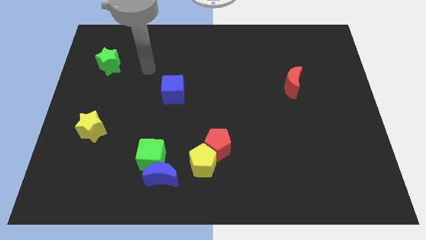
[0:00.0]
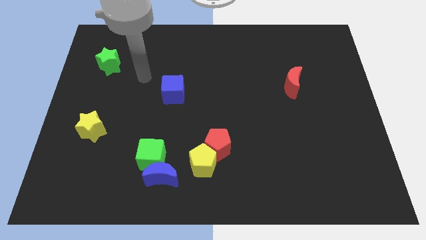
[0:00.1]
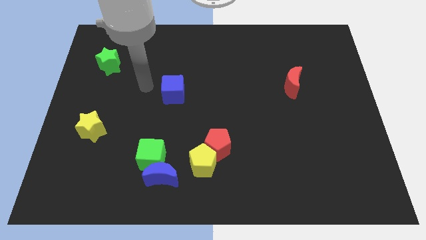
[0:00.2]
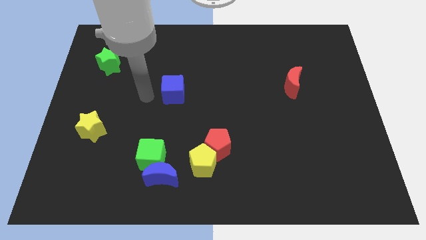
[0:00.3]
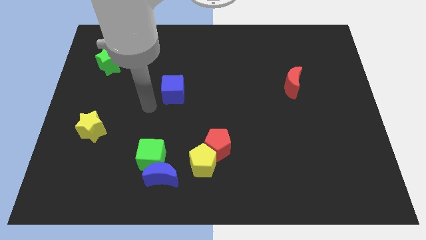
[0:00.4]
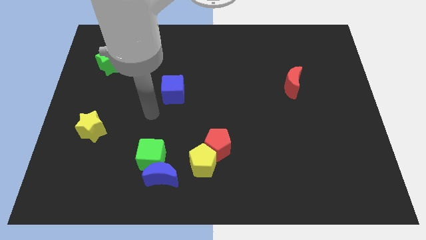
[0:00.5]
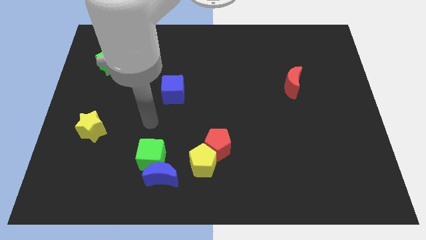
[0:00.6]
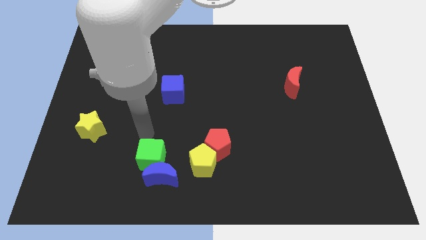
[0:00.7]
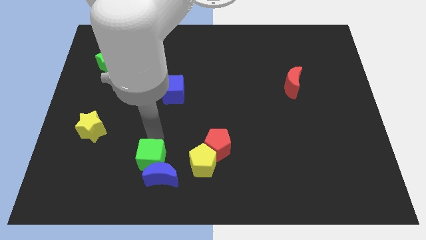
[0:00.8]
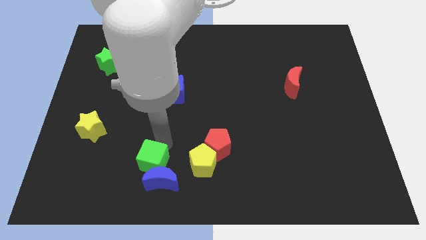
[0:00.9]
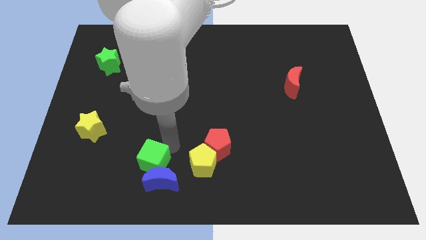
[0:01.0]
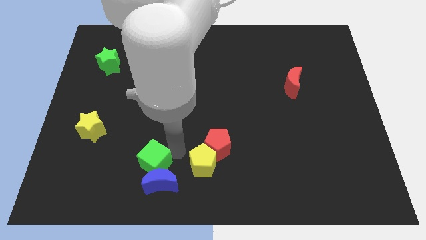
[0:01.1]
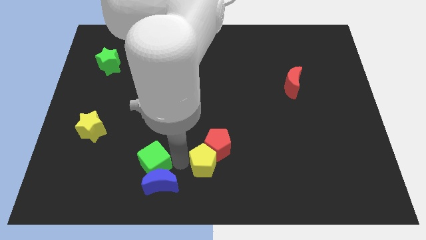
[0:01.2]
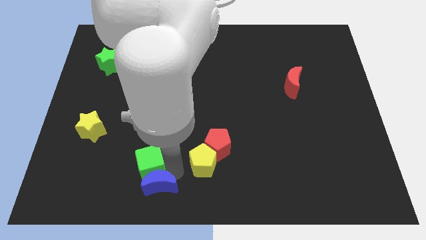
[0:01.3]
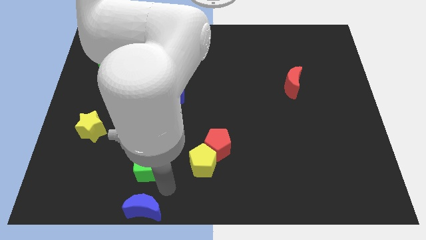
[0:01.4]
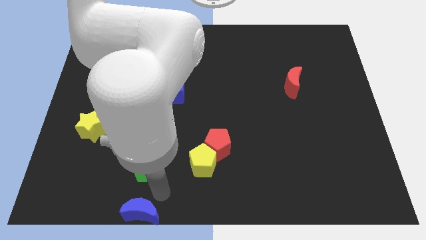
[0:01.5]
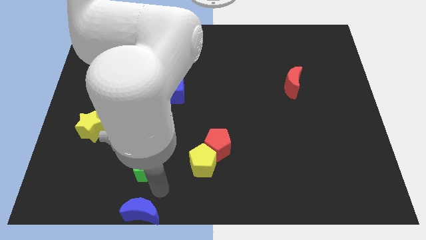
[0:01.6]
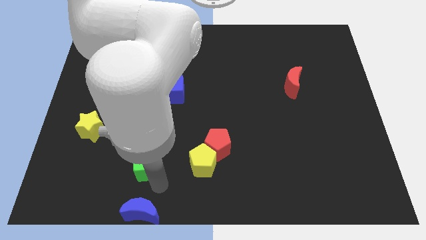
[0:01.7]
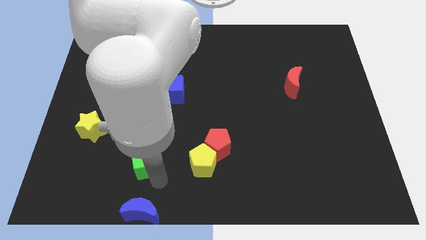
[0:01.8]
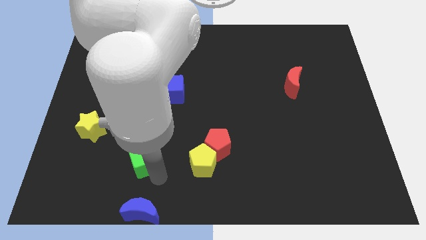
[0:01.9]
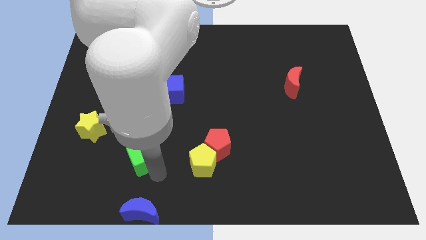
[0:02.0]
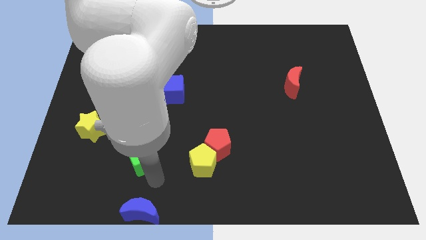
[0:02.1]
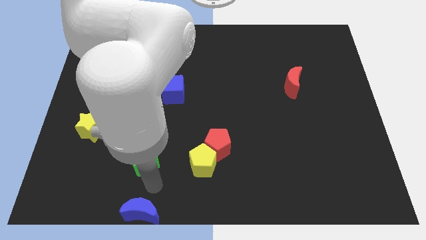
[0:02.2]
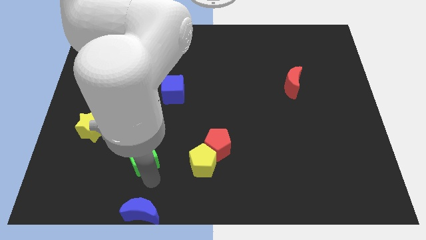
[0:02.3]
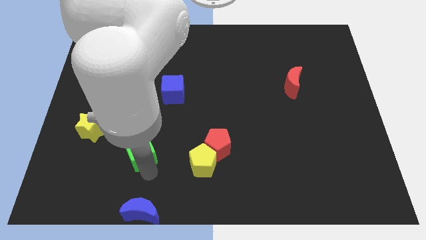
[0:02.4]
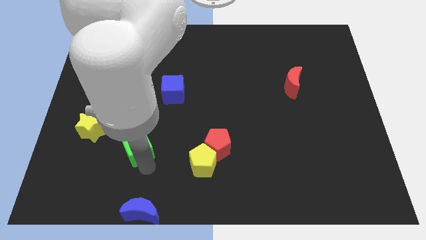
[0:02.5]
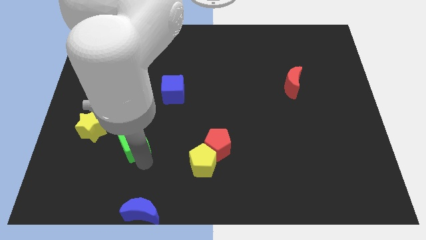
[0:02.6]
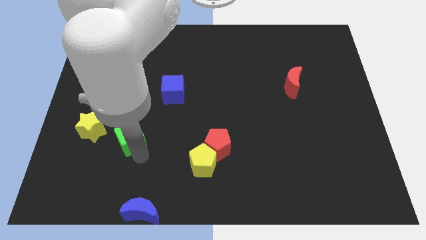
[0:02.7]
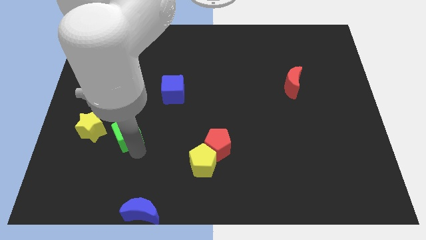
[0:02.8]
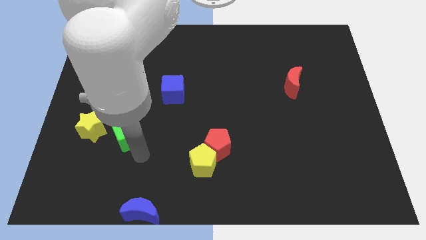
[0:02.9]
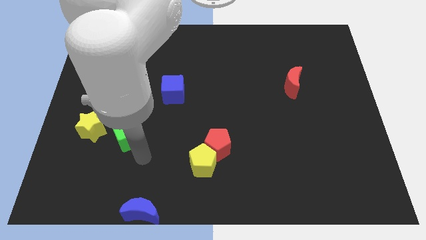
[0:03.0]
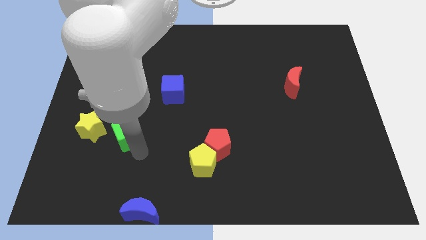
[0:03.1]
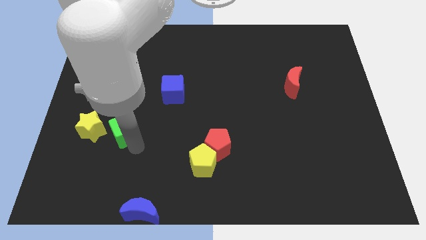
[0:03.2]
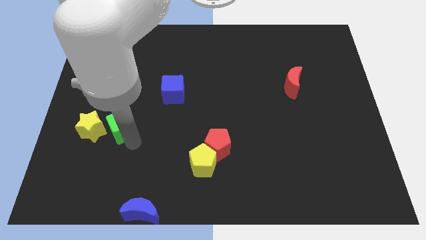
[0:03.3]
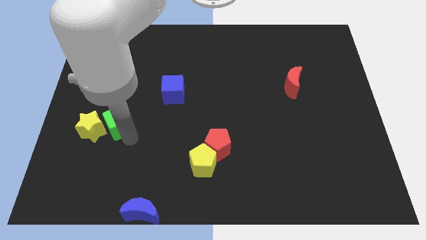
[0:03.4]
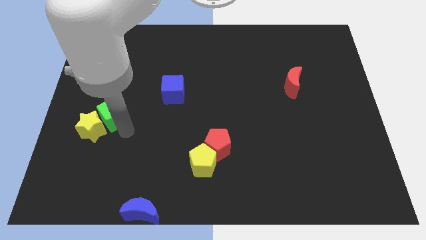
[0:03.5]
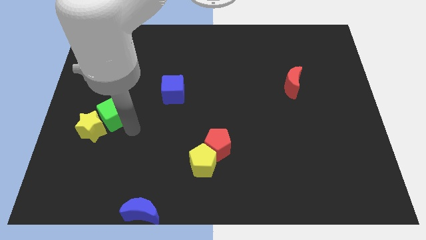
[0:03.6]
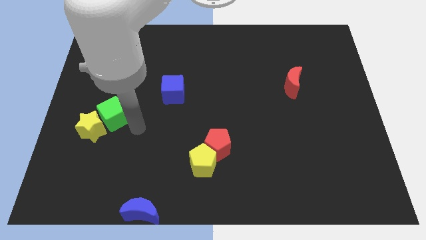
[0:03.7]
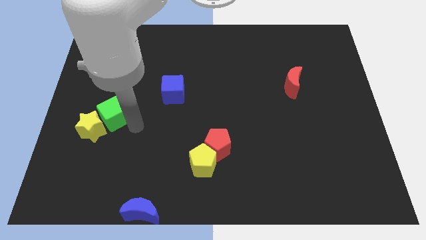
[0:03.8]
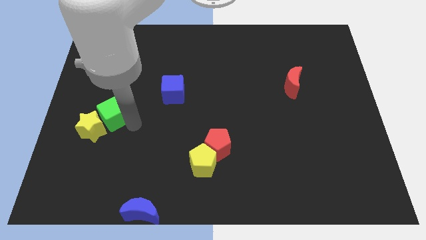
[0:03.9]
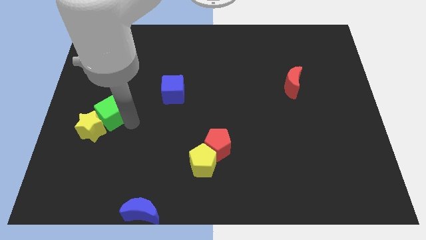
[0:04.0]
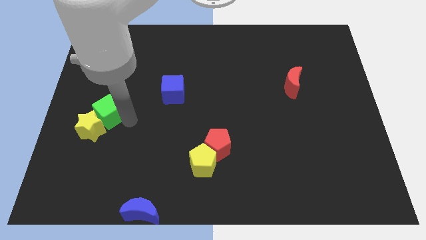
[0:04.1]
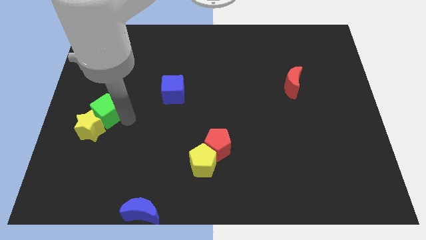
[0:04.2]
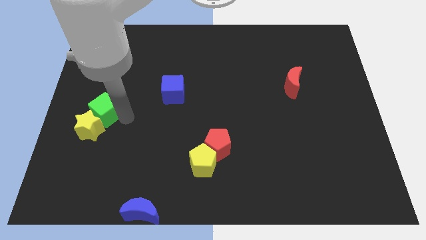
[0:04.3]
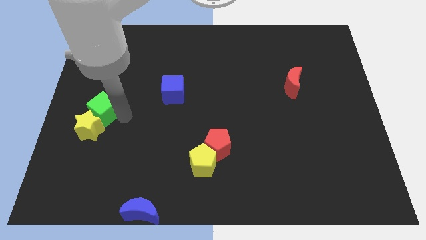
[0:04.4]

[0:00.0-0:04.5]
move the green cube to the left side

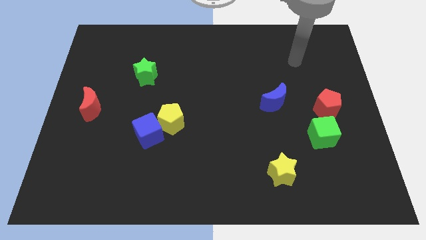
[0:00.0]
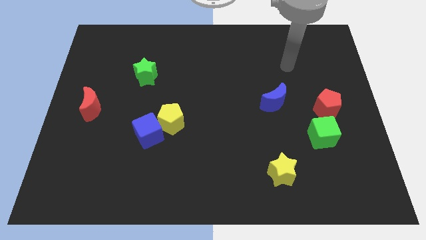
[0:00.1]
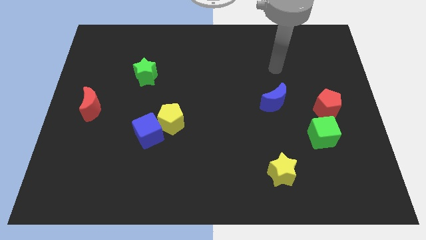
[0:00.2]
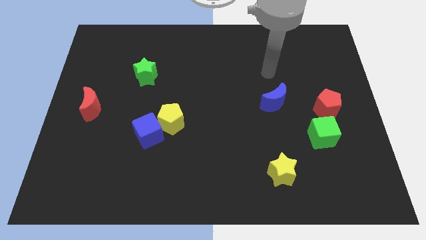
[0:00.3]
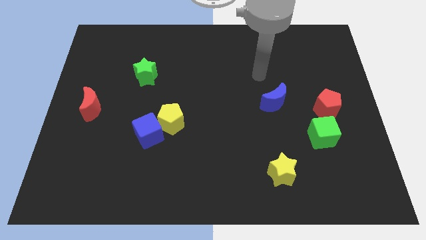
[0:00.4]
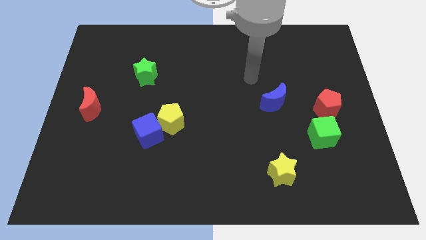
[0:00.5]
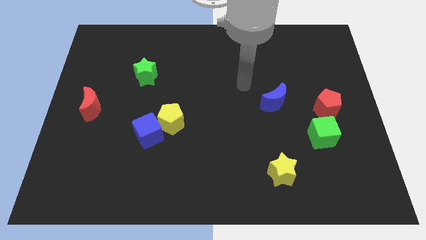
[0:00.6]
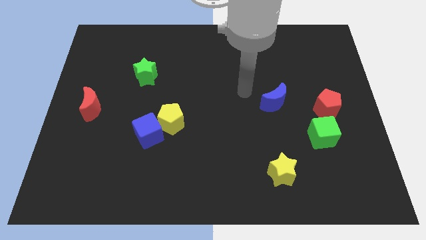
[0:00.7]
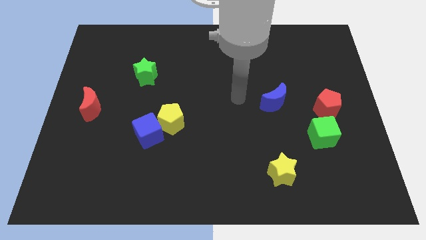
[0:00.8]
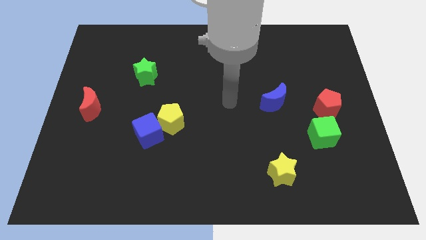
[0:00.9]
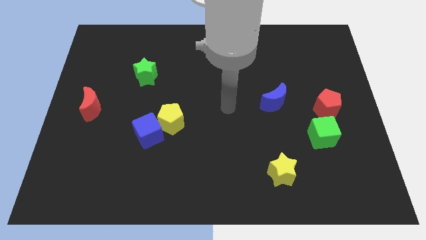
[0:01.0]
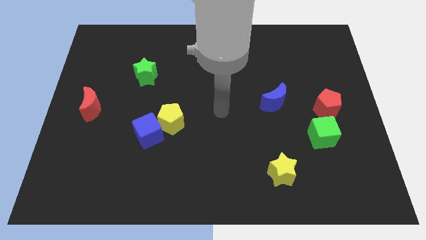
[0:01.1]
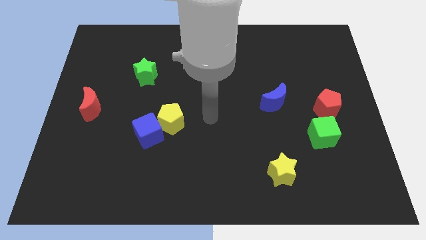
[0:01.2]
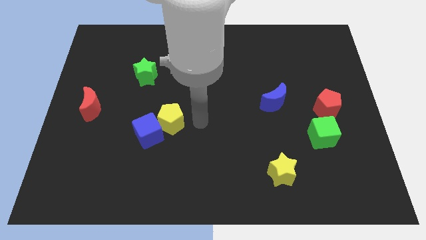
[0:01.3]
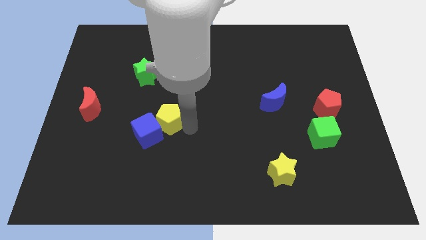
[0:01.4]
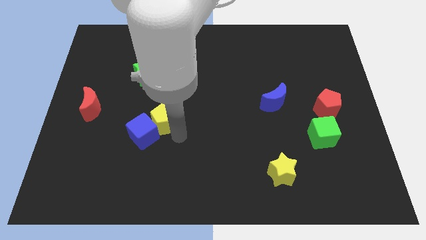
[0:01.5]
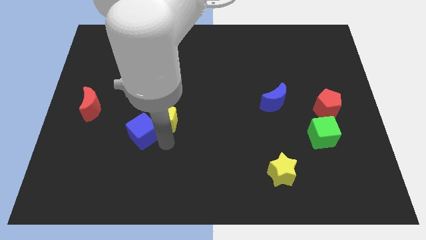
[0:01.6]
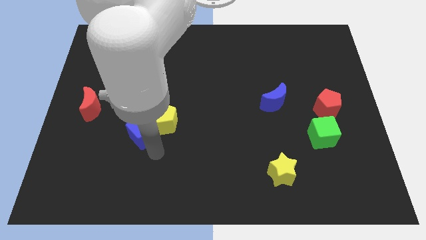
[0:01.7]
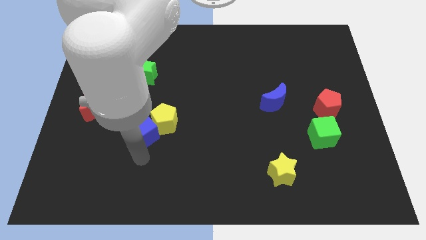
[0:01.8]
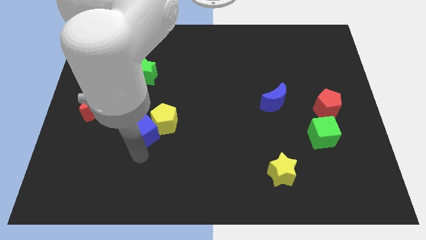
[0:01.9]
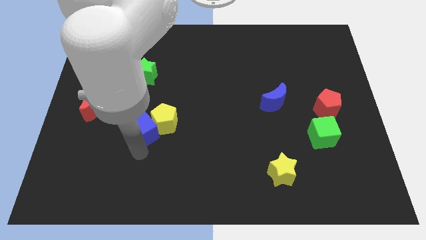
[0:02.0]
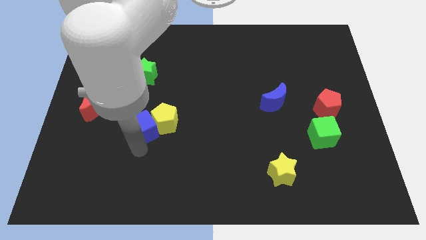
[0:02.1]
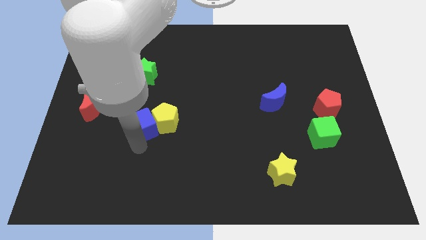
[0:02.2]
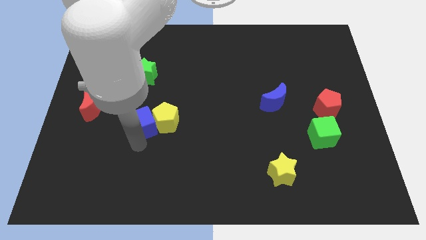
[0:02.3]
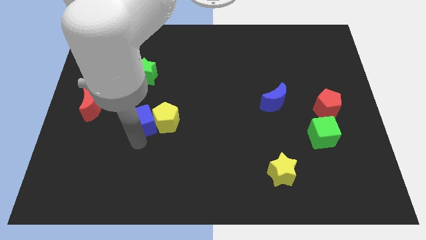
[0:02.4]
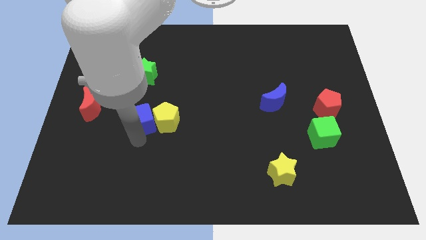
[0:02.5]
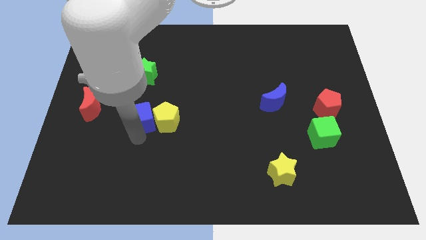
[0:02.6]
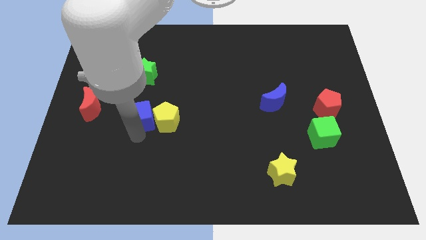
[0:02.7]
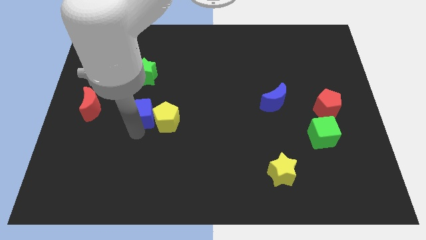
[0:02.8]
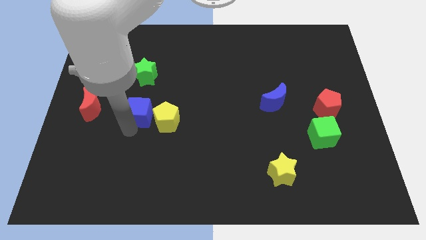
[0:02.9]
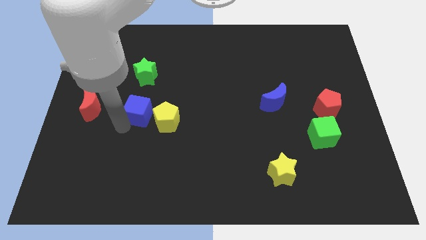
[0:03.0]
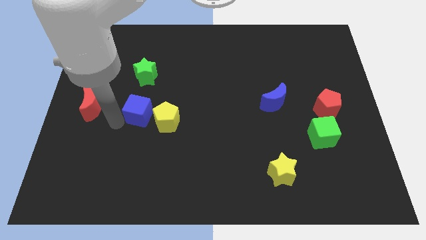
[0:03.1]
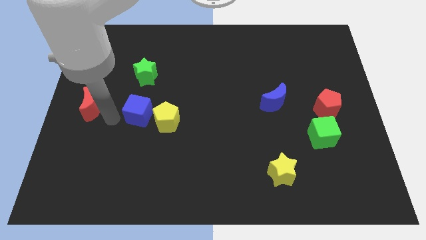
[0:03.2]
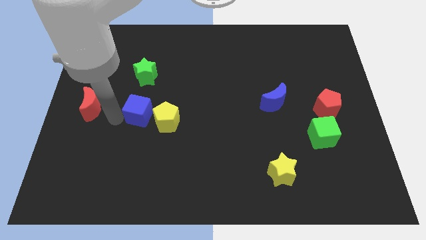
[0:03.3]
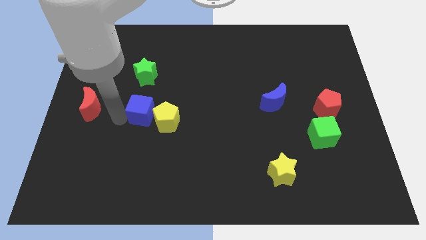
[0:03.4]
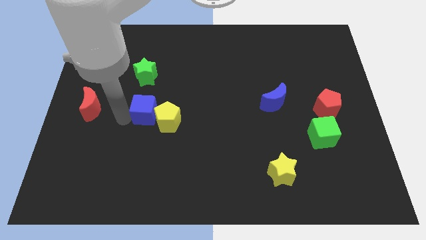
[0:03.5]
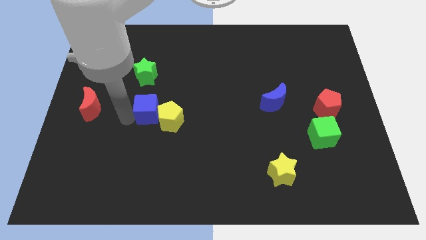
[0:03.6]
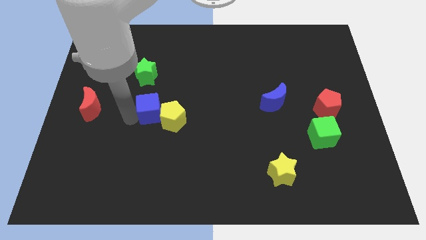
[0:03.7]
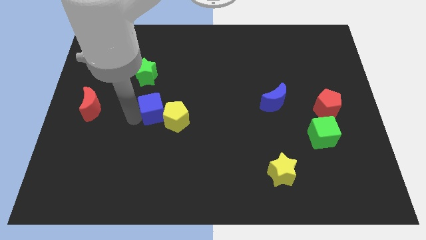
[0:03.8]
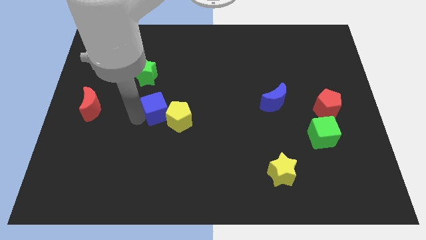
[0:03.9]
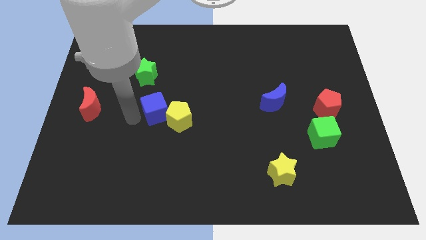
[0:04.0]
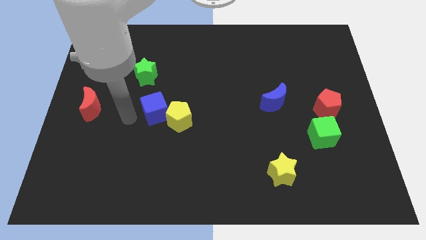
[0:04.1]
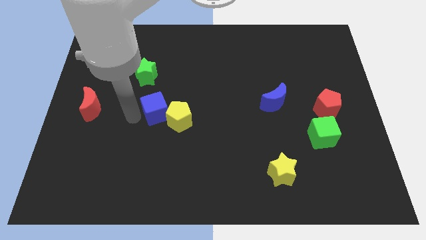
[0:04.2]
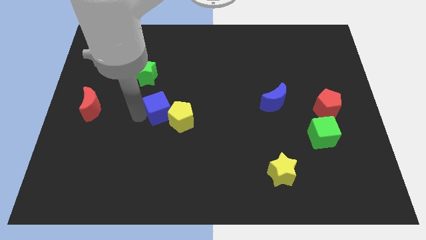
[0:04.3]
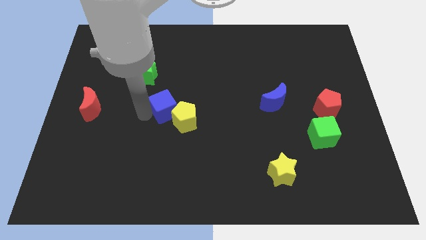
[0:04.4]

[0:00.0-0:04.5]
put the blue cube to the center
